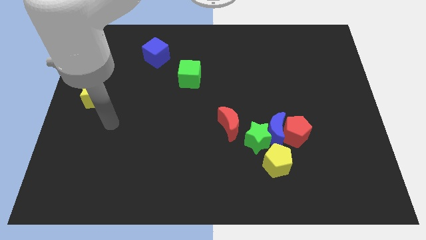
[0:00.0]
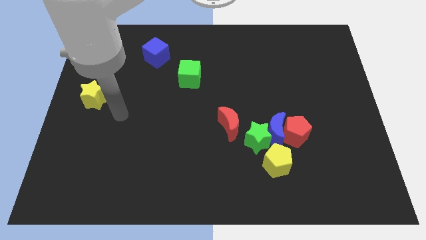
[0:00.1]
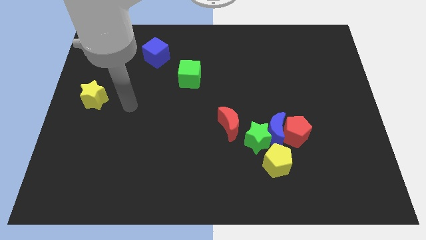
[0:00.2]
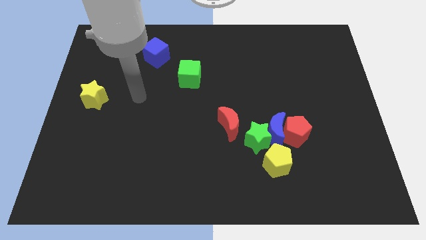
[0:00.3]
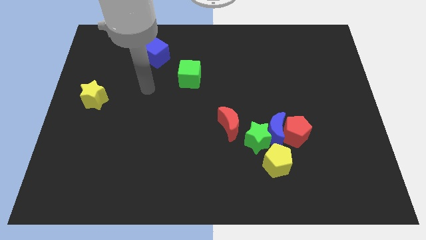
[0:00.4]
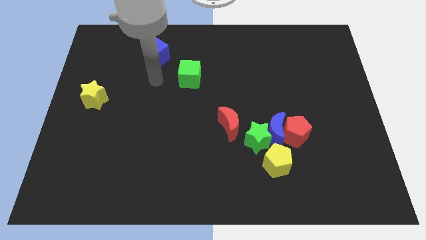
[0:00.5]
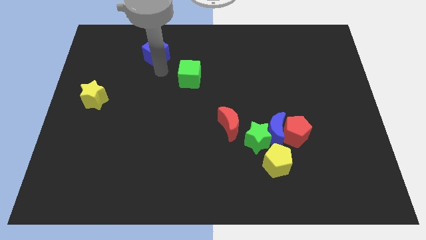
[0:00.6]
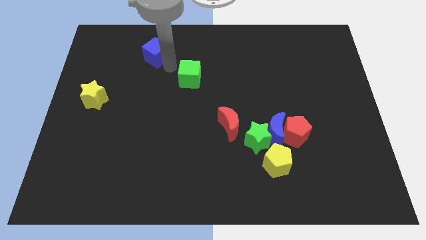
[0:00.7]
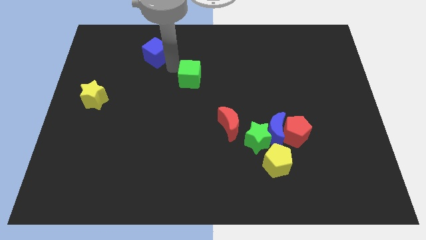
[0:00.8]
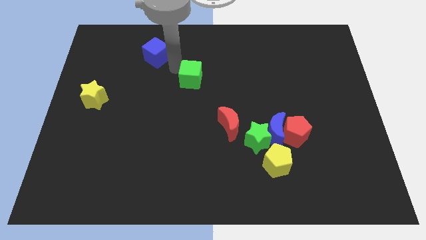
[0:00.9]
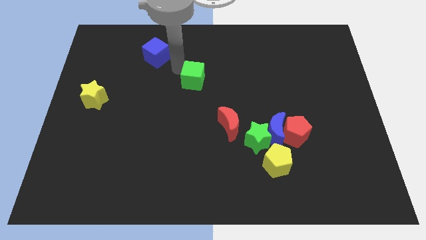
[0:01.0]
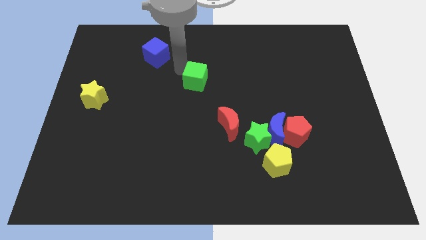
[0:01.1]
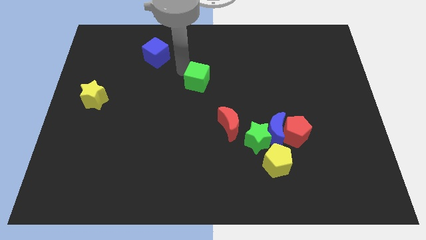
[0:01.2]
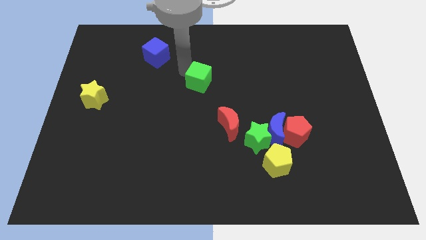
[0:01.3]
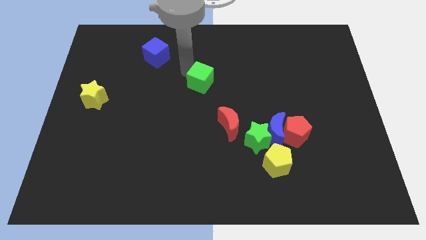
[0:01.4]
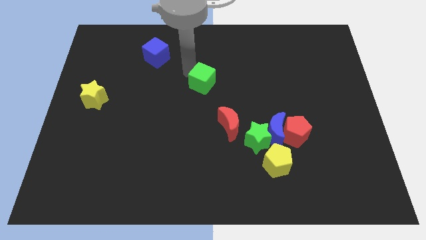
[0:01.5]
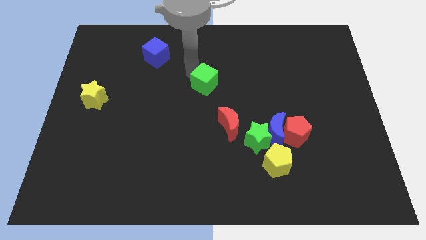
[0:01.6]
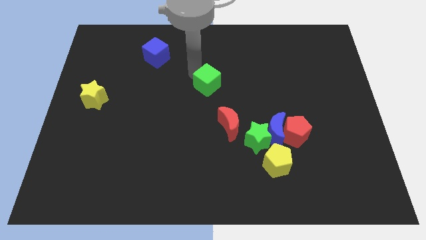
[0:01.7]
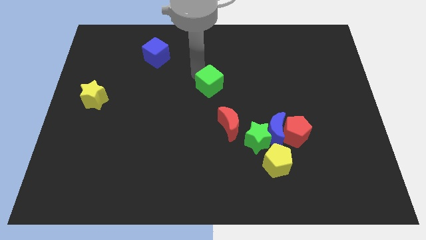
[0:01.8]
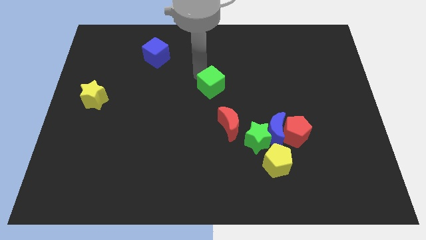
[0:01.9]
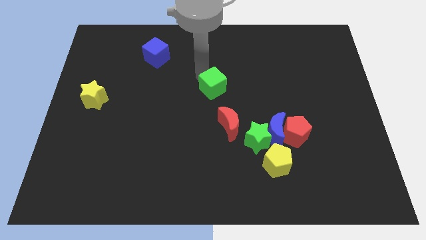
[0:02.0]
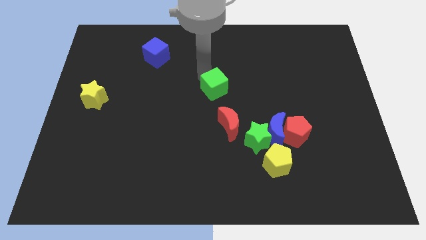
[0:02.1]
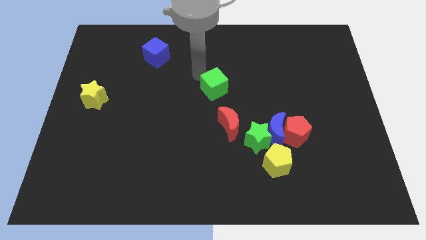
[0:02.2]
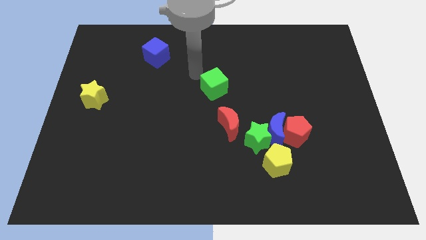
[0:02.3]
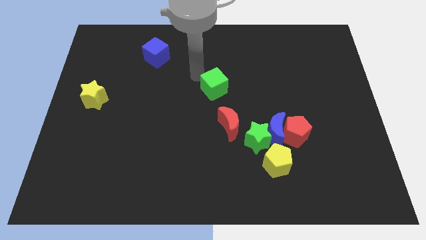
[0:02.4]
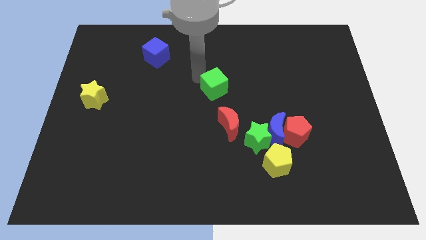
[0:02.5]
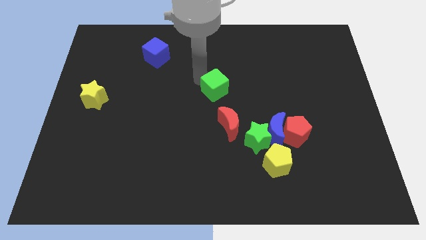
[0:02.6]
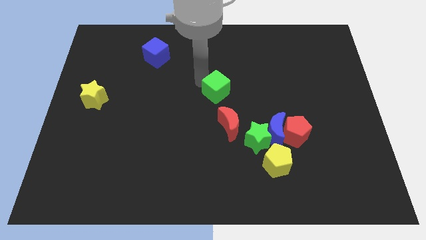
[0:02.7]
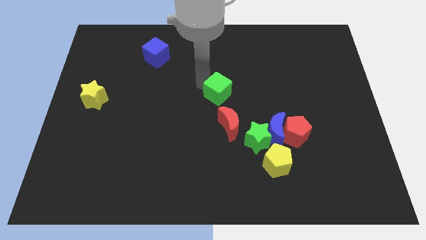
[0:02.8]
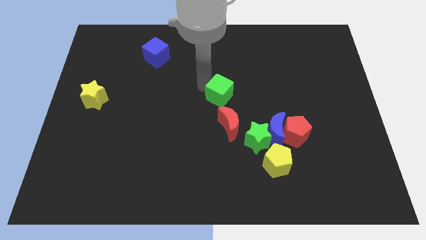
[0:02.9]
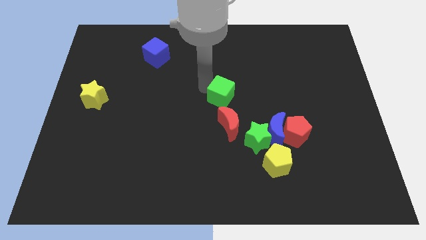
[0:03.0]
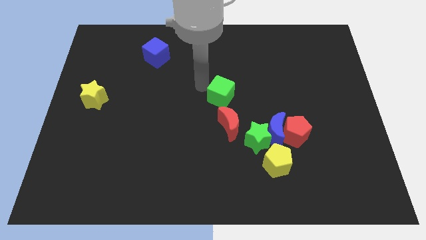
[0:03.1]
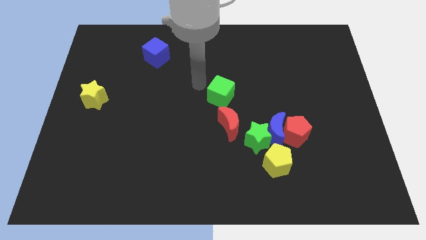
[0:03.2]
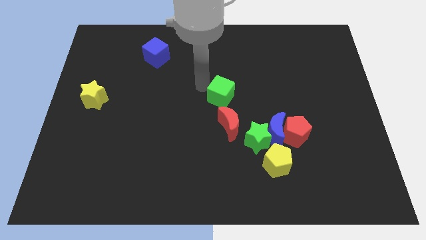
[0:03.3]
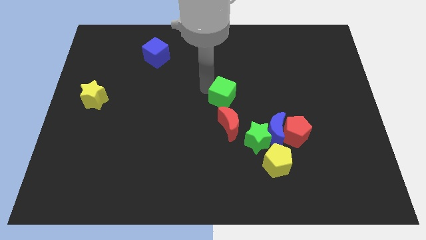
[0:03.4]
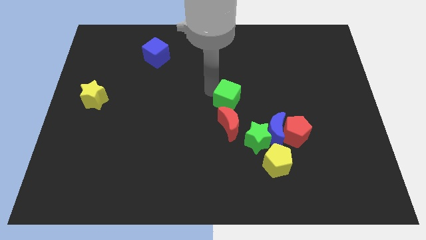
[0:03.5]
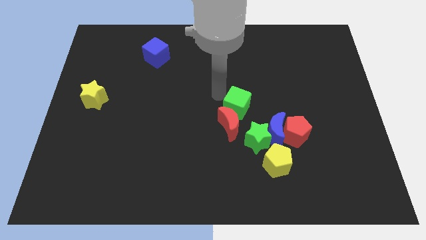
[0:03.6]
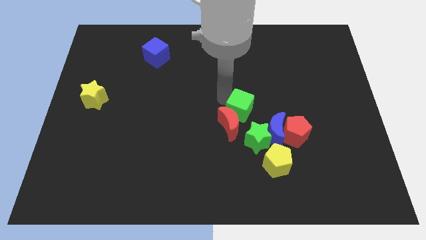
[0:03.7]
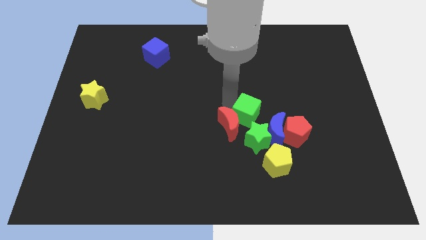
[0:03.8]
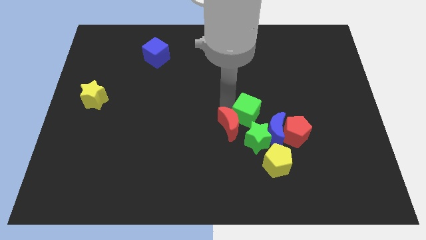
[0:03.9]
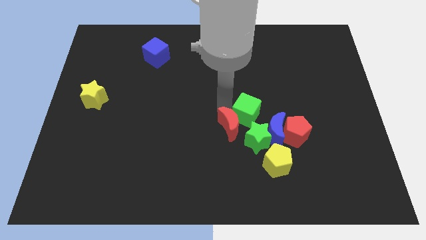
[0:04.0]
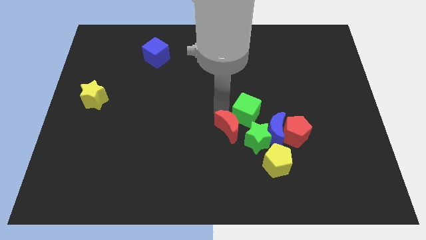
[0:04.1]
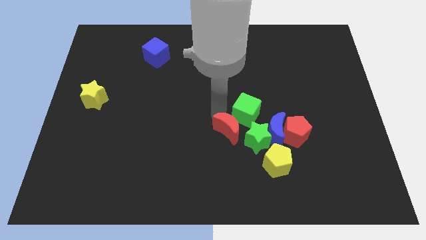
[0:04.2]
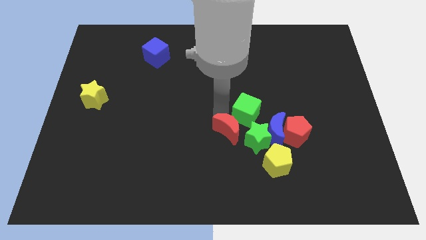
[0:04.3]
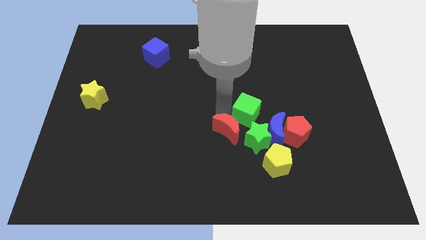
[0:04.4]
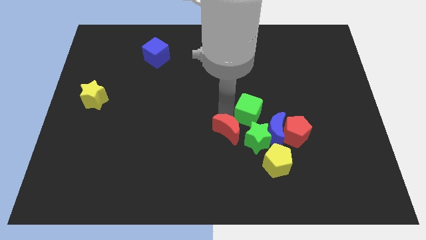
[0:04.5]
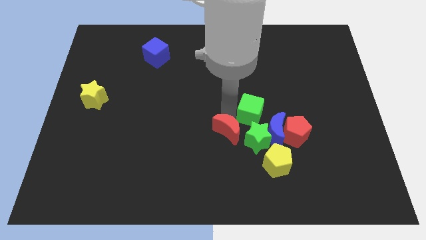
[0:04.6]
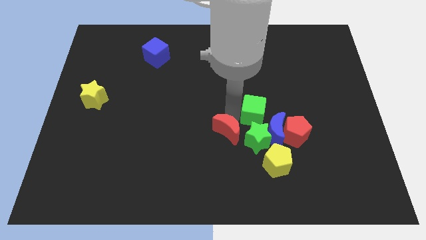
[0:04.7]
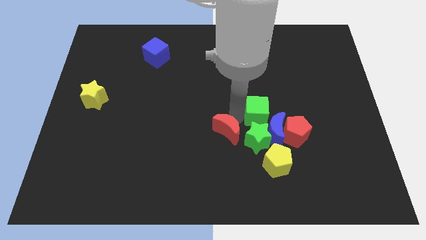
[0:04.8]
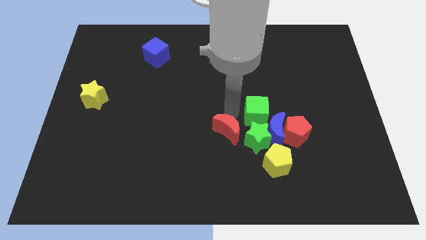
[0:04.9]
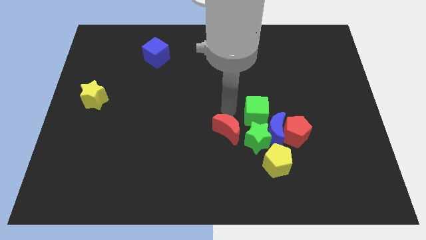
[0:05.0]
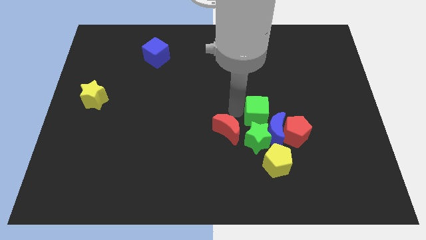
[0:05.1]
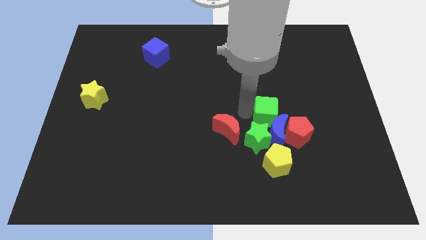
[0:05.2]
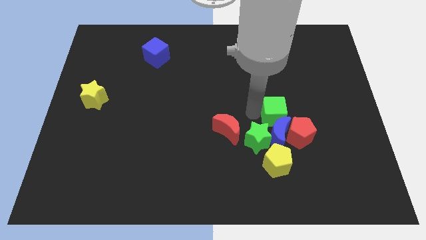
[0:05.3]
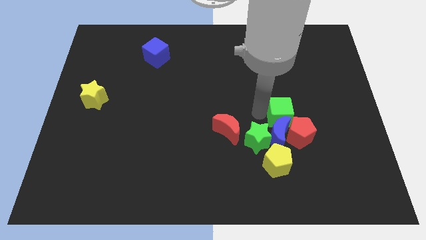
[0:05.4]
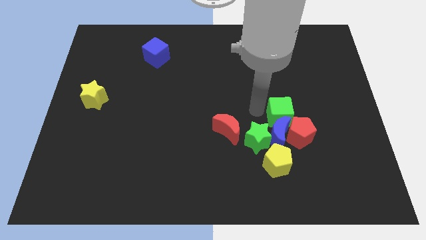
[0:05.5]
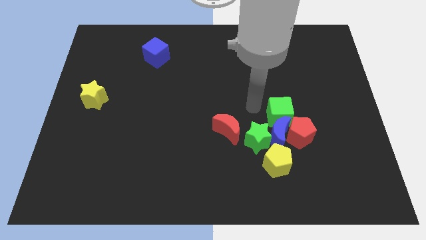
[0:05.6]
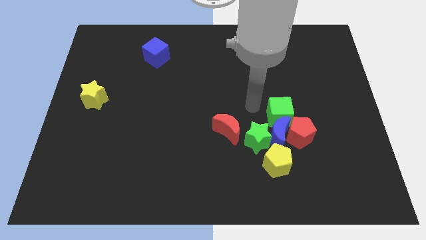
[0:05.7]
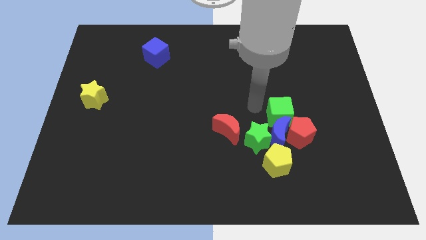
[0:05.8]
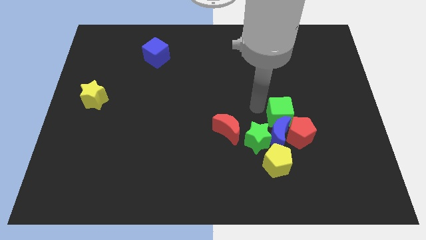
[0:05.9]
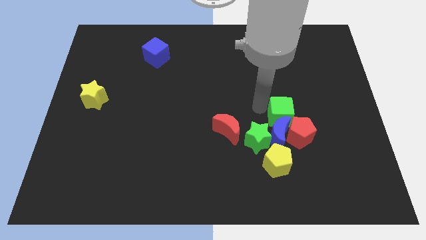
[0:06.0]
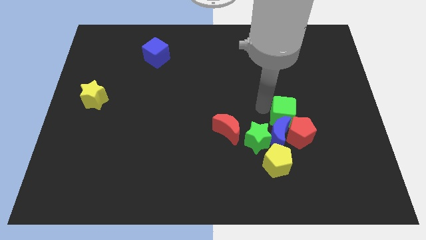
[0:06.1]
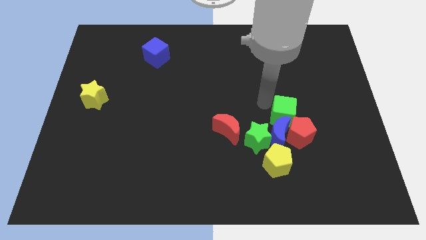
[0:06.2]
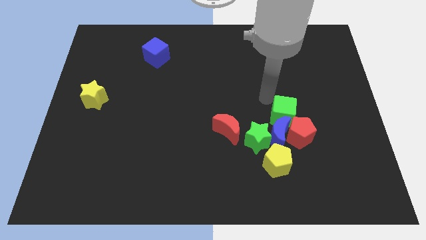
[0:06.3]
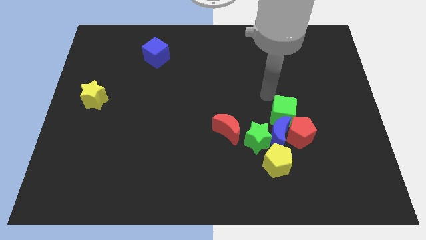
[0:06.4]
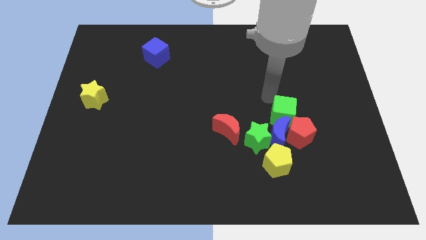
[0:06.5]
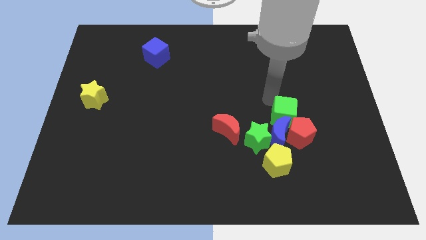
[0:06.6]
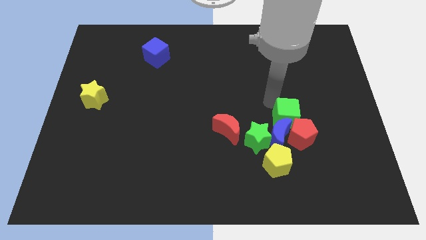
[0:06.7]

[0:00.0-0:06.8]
put the green cube close to the red pentagon
